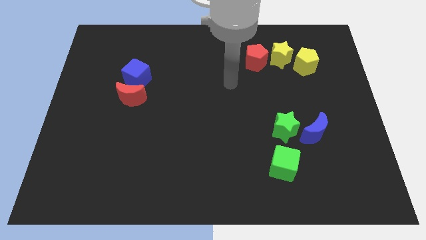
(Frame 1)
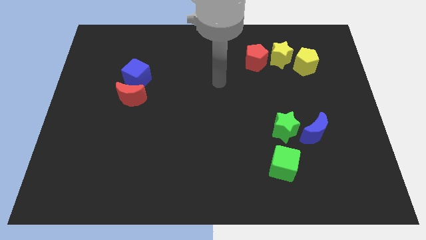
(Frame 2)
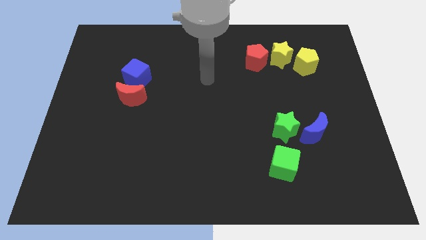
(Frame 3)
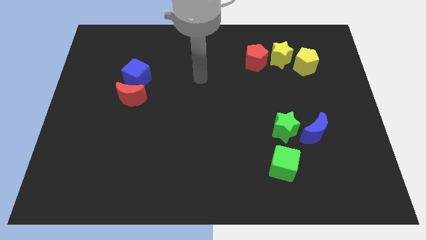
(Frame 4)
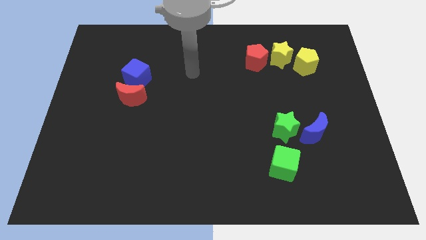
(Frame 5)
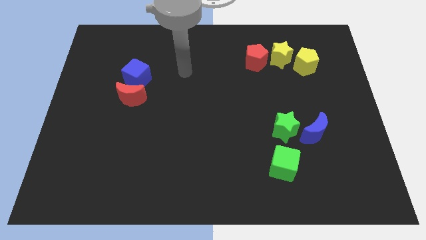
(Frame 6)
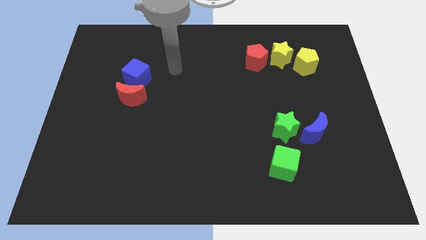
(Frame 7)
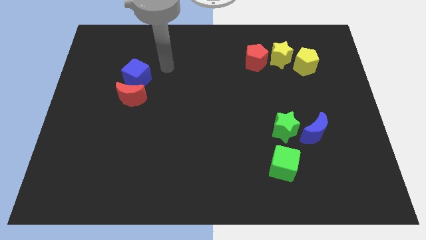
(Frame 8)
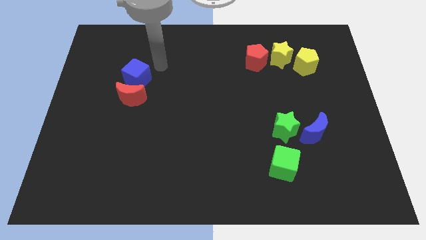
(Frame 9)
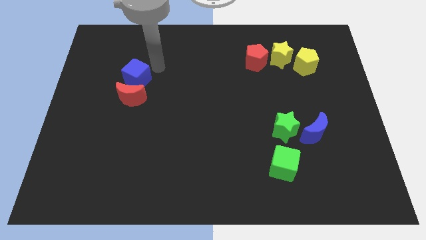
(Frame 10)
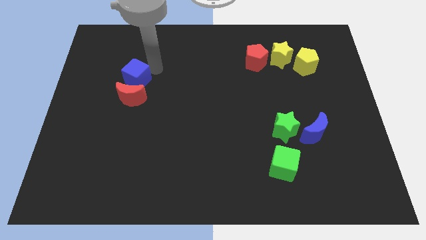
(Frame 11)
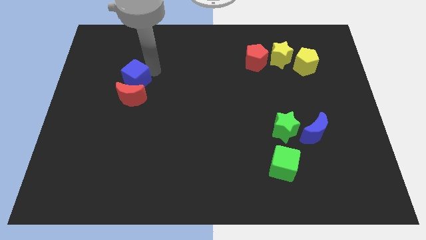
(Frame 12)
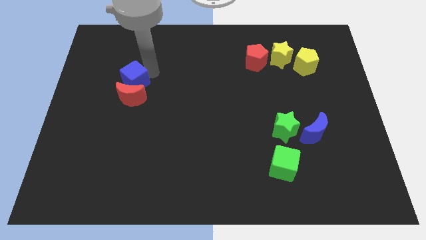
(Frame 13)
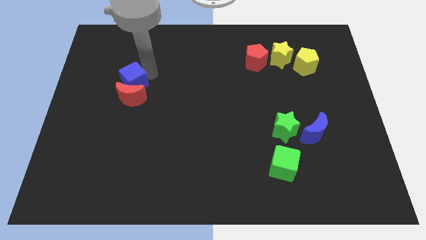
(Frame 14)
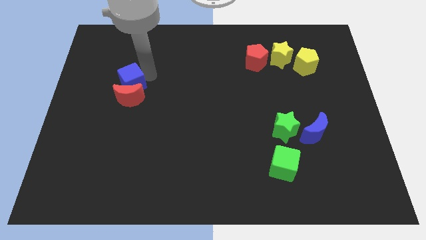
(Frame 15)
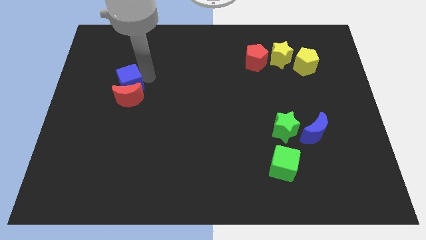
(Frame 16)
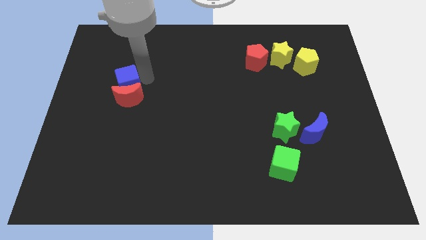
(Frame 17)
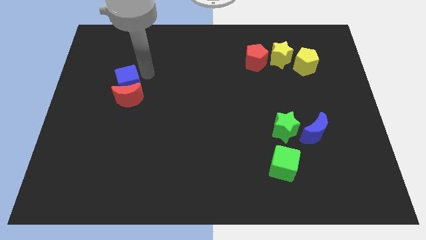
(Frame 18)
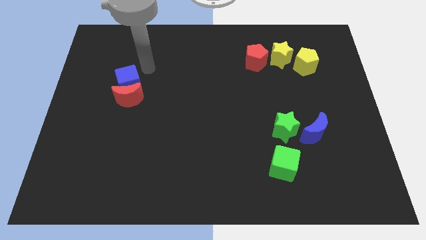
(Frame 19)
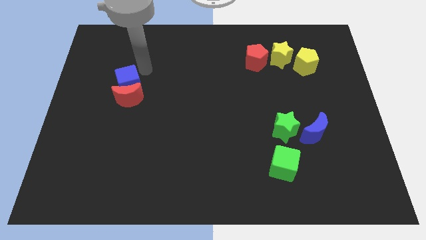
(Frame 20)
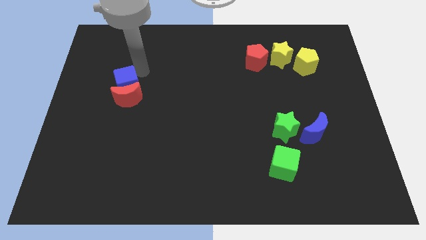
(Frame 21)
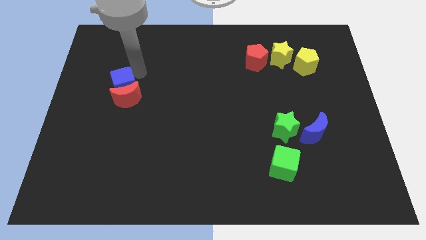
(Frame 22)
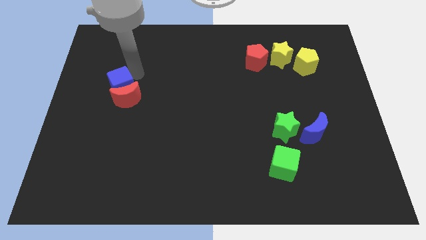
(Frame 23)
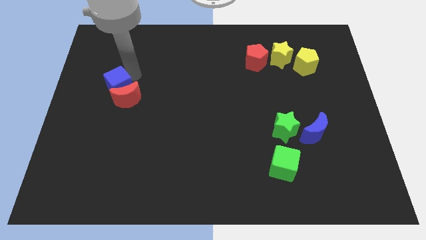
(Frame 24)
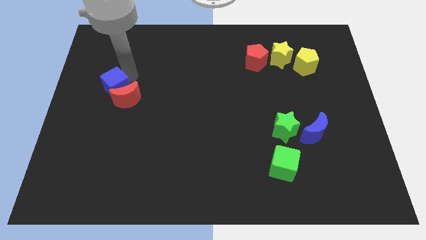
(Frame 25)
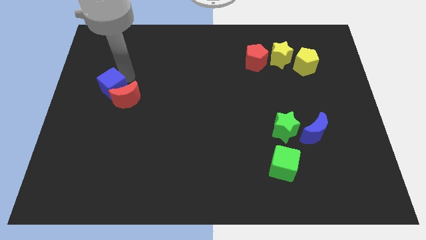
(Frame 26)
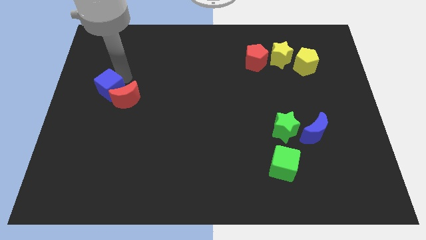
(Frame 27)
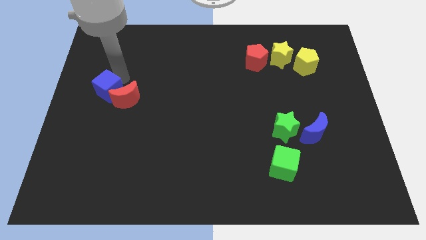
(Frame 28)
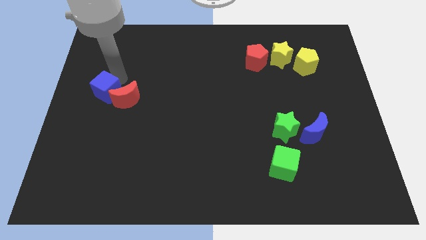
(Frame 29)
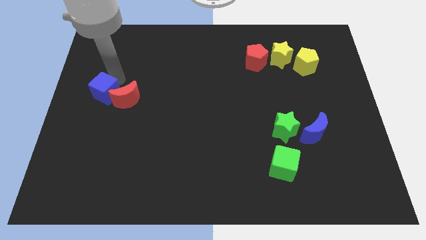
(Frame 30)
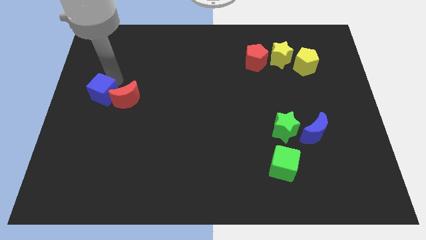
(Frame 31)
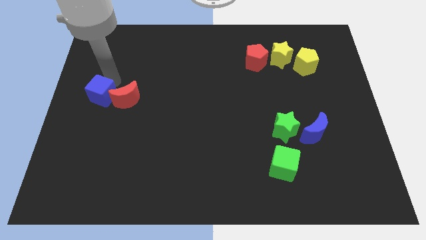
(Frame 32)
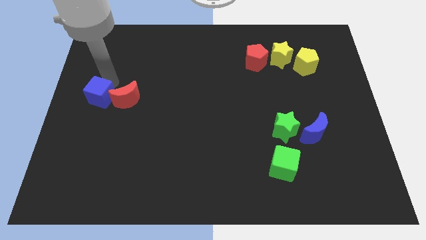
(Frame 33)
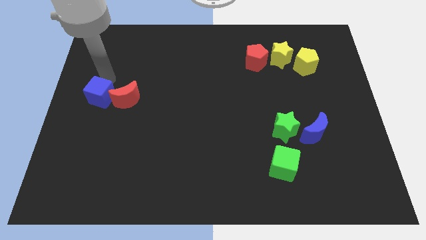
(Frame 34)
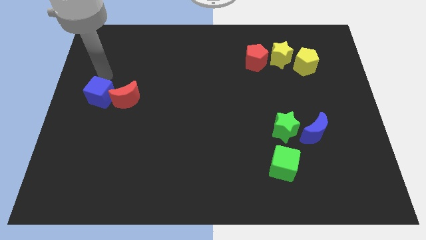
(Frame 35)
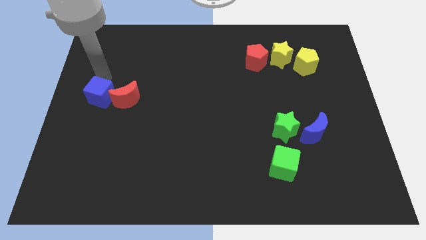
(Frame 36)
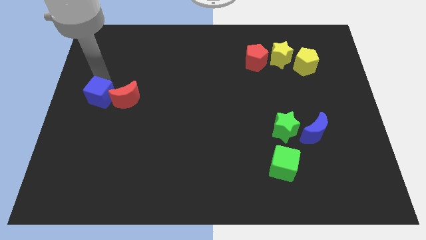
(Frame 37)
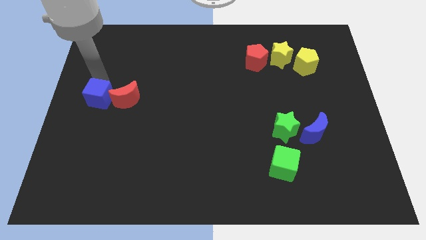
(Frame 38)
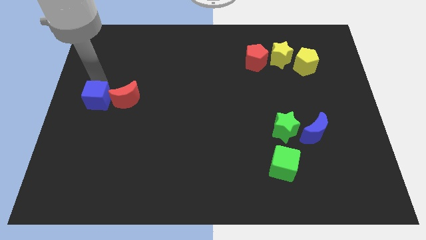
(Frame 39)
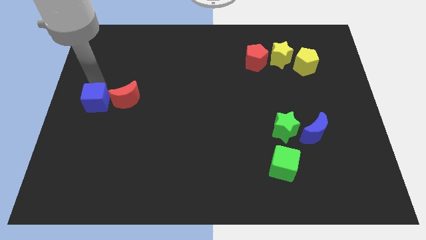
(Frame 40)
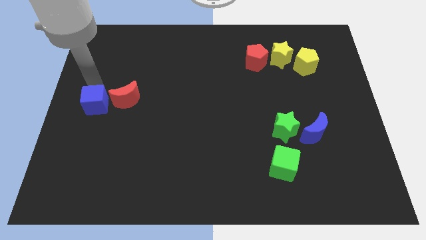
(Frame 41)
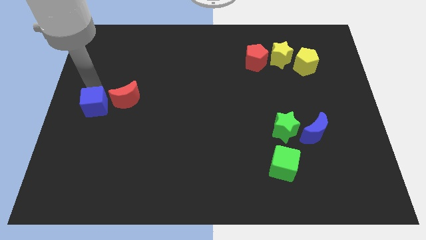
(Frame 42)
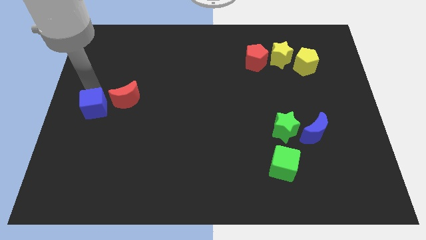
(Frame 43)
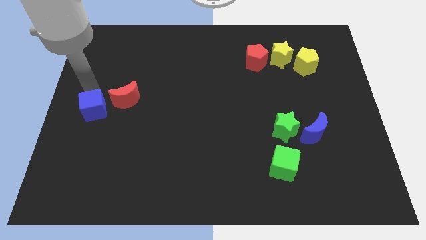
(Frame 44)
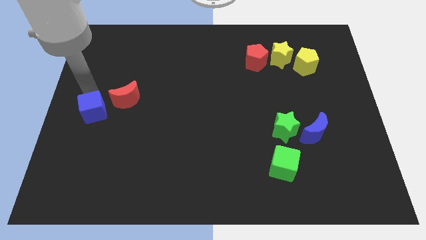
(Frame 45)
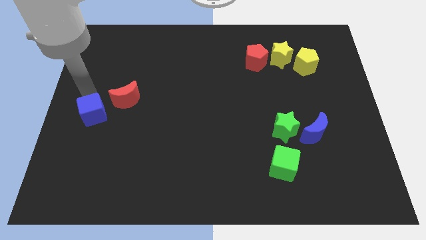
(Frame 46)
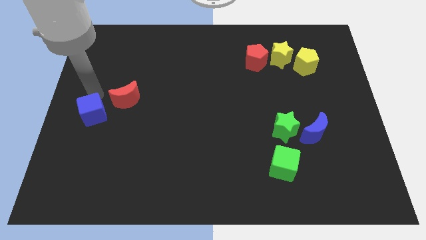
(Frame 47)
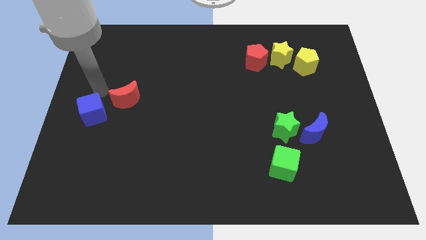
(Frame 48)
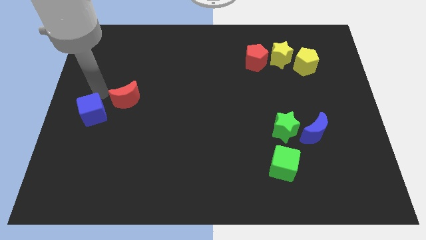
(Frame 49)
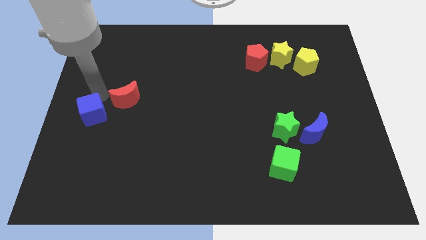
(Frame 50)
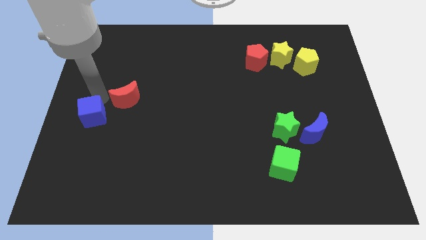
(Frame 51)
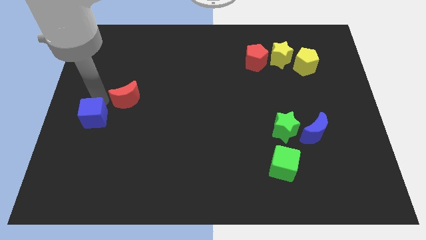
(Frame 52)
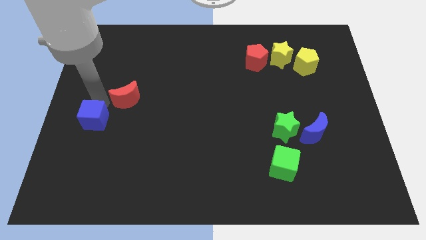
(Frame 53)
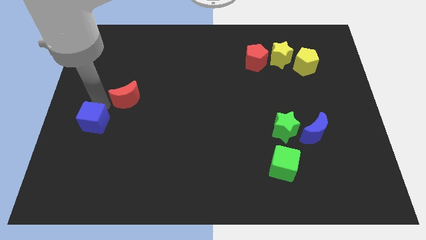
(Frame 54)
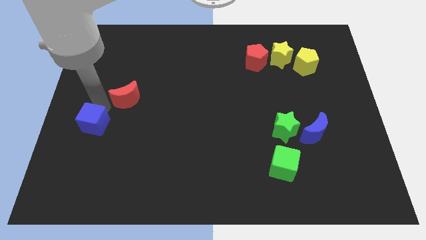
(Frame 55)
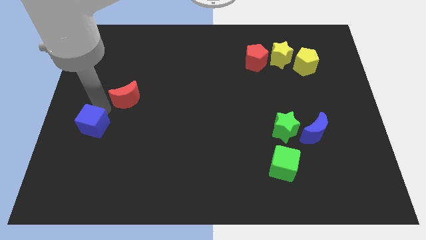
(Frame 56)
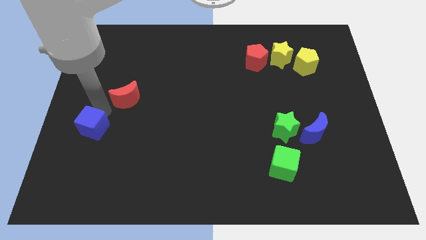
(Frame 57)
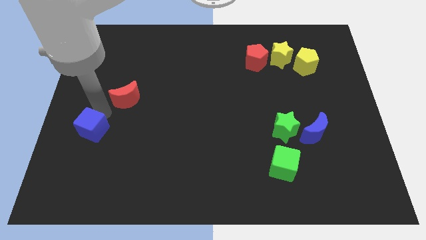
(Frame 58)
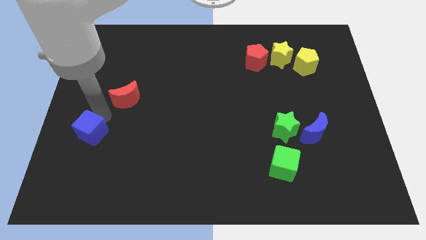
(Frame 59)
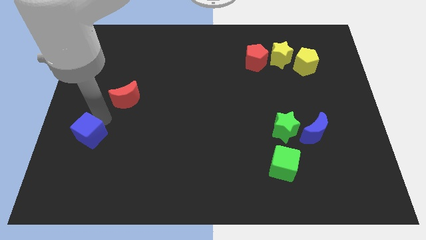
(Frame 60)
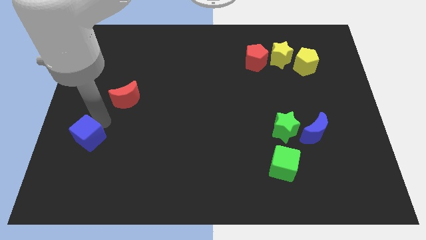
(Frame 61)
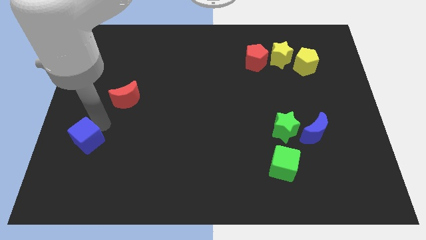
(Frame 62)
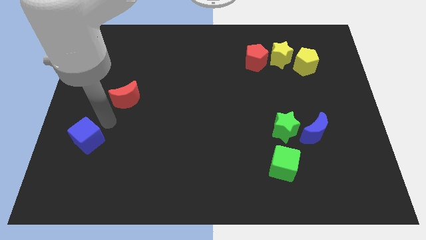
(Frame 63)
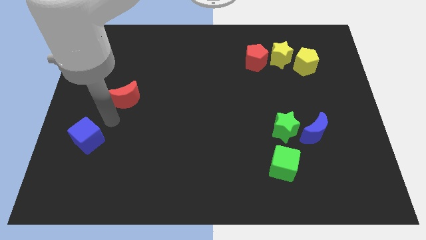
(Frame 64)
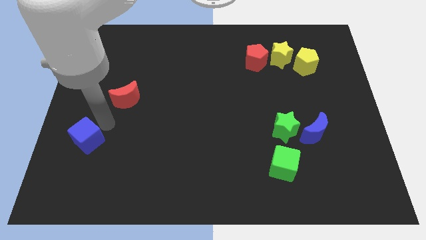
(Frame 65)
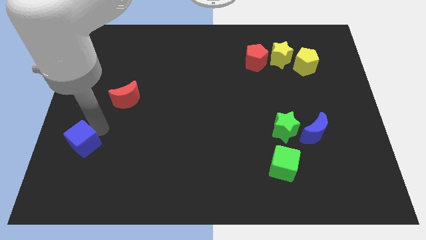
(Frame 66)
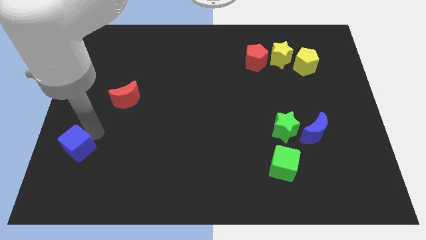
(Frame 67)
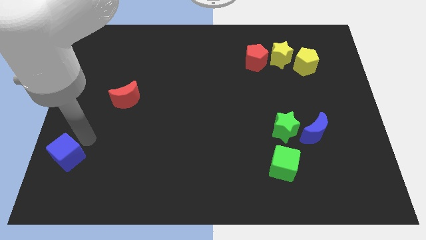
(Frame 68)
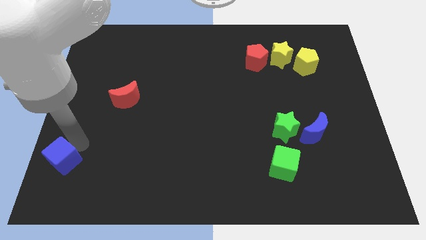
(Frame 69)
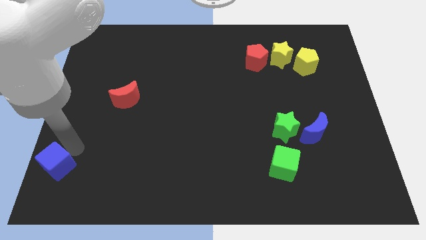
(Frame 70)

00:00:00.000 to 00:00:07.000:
push the blue cube to the bottom left

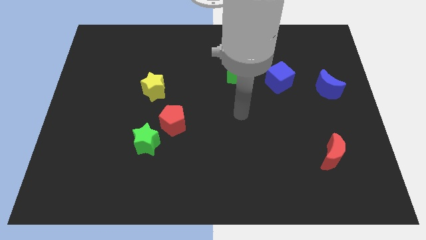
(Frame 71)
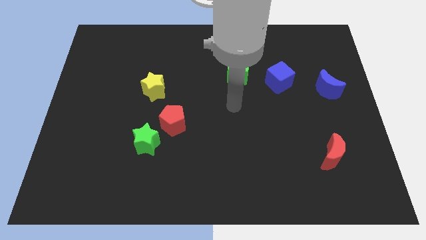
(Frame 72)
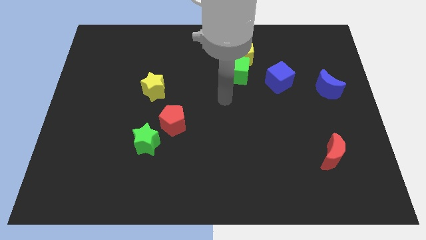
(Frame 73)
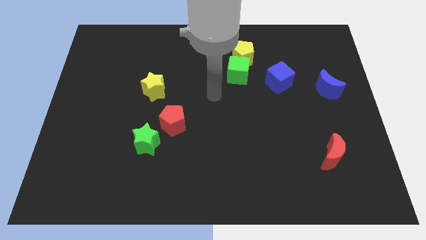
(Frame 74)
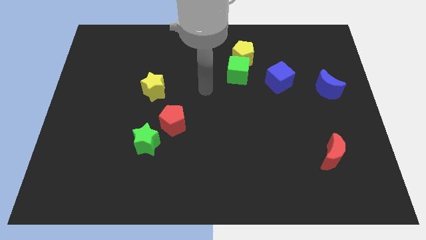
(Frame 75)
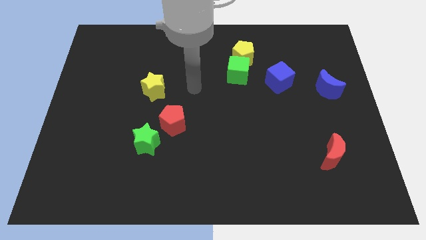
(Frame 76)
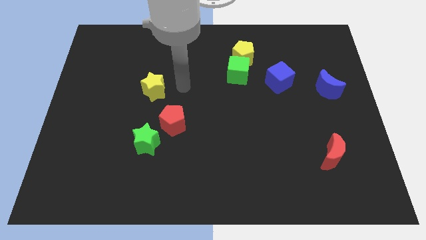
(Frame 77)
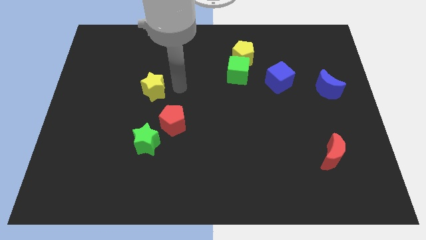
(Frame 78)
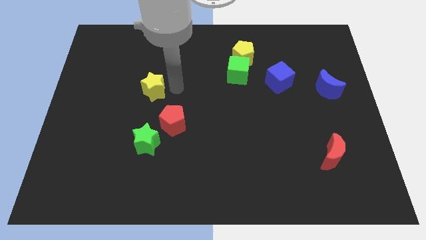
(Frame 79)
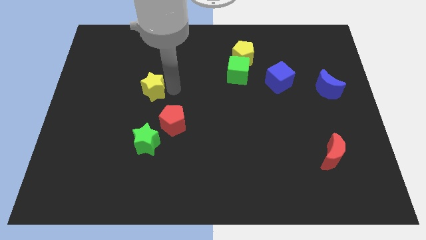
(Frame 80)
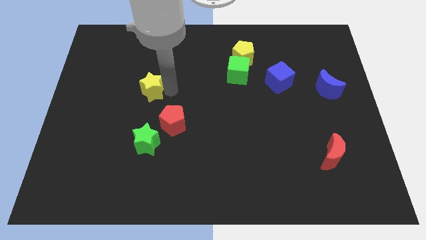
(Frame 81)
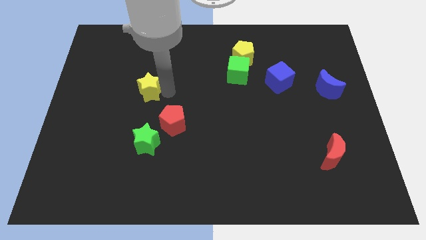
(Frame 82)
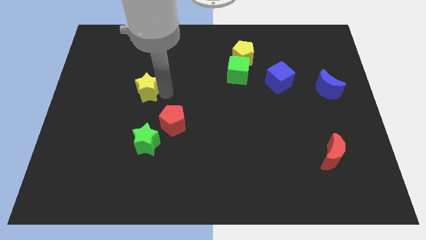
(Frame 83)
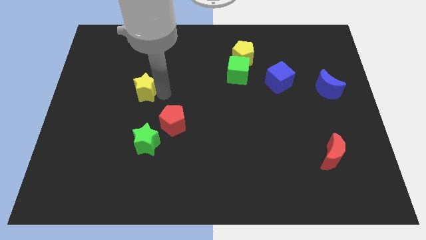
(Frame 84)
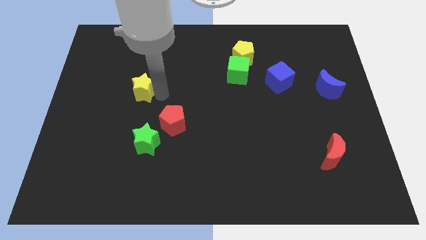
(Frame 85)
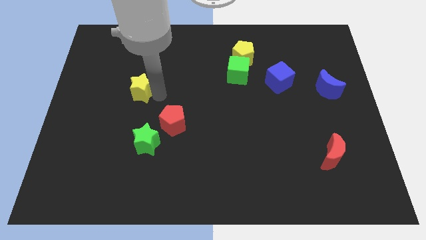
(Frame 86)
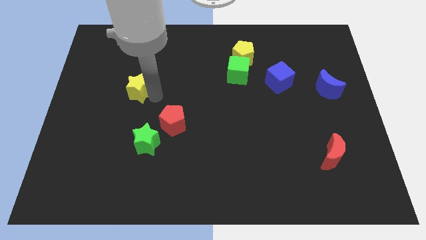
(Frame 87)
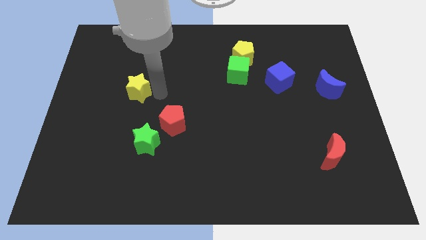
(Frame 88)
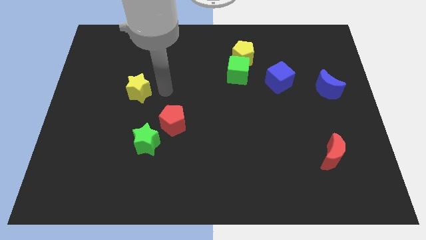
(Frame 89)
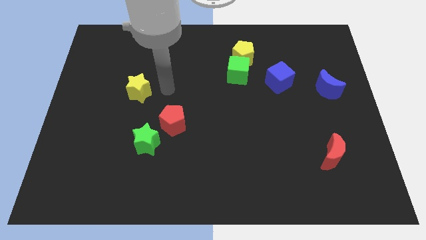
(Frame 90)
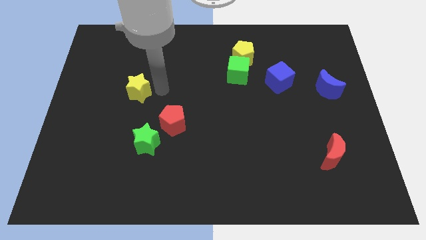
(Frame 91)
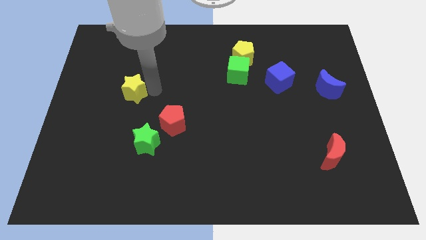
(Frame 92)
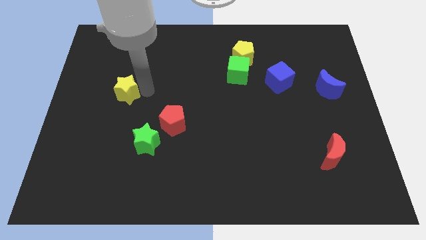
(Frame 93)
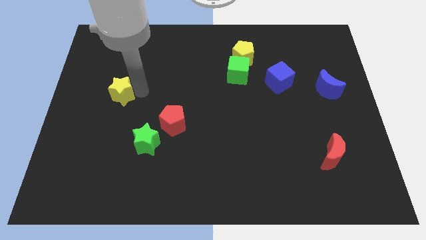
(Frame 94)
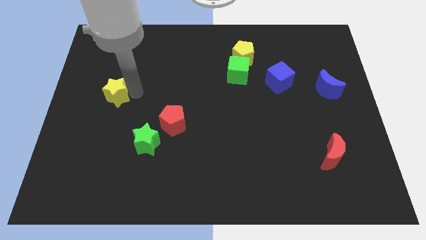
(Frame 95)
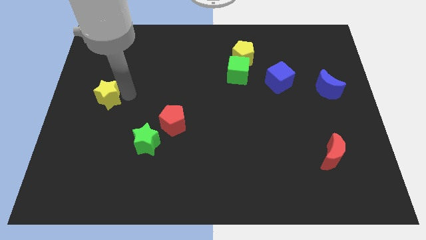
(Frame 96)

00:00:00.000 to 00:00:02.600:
slide the yellow star to the center left
